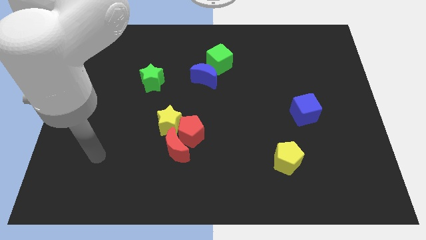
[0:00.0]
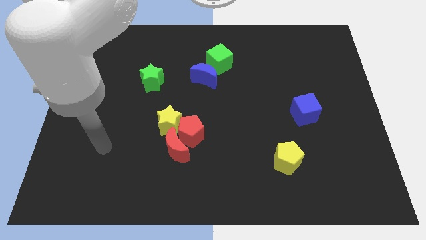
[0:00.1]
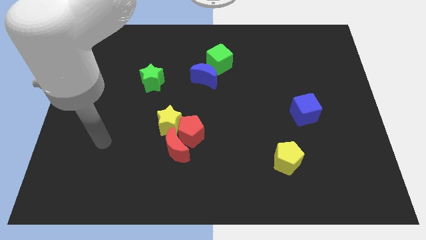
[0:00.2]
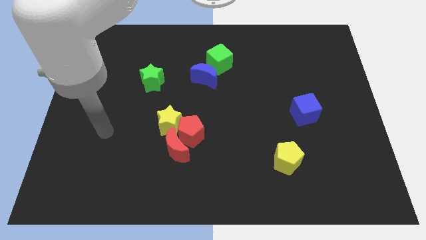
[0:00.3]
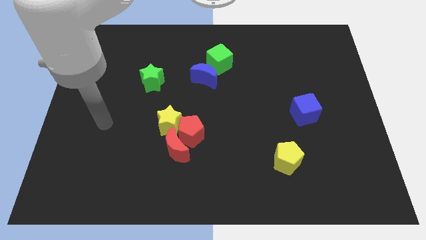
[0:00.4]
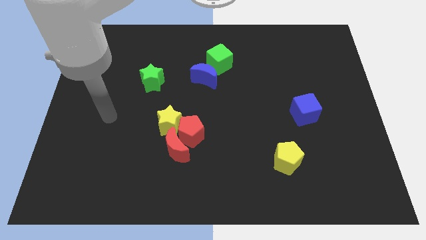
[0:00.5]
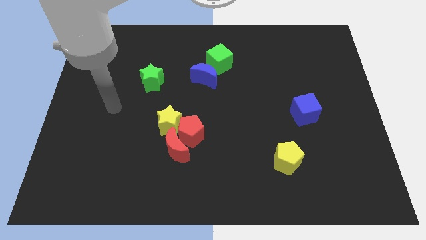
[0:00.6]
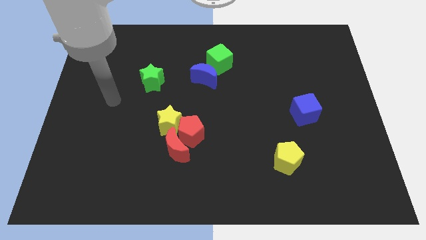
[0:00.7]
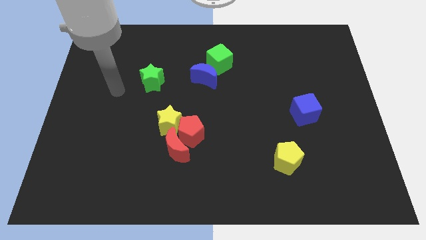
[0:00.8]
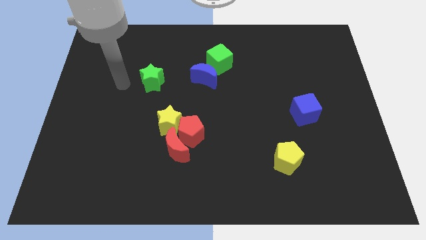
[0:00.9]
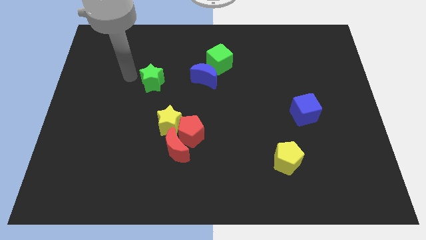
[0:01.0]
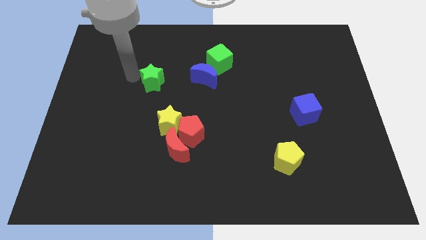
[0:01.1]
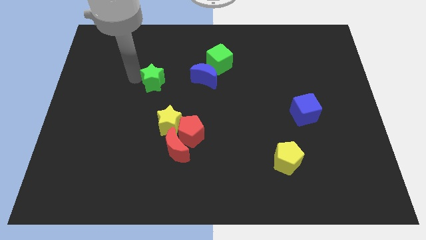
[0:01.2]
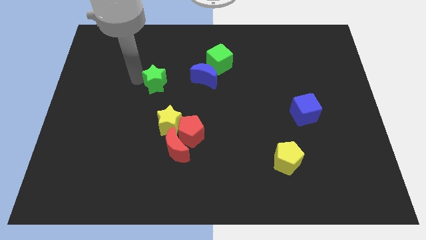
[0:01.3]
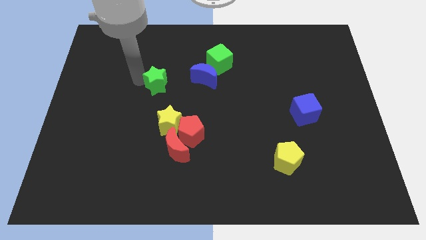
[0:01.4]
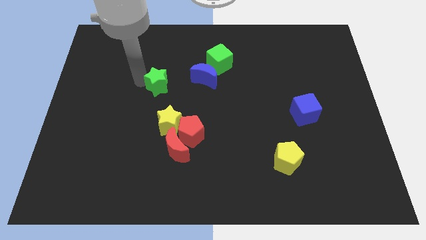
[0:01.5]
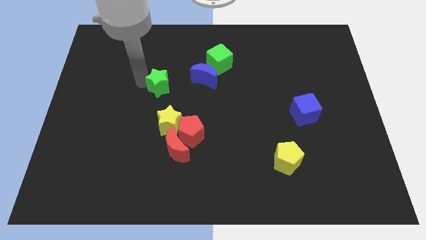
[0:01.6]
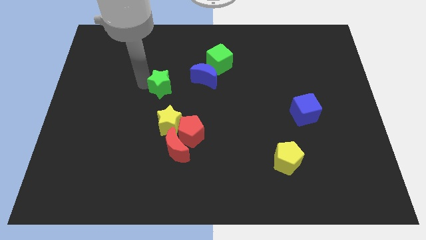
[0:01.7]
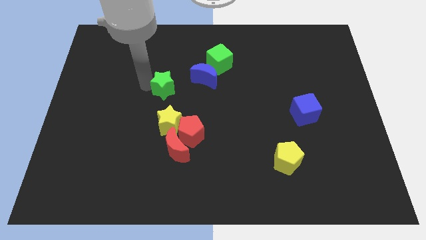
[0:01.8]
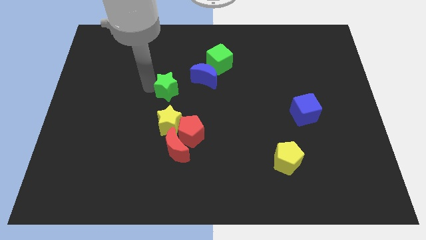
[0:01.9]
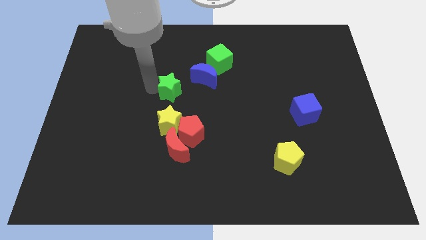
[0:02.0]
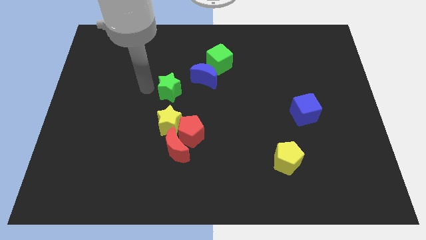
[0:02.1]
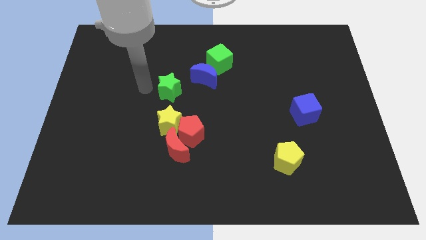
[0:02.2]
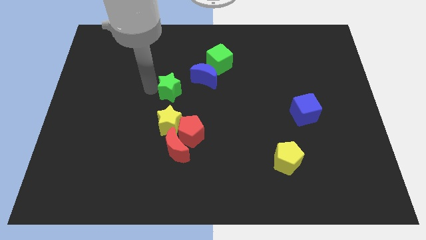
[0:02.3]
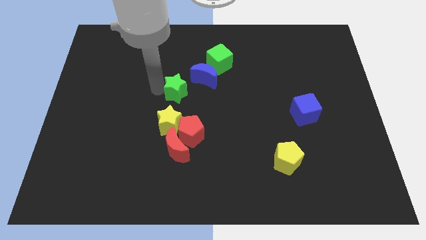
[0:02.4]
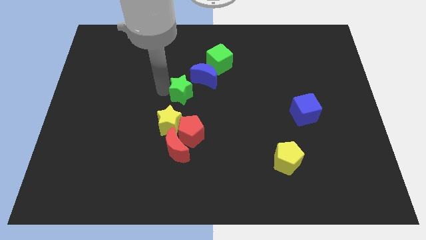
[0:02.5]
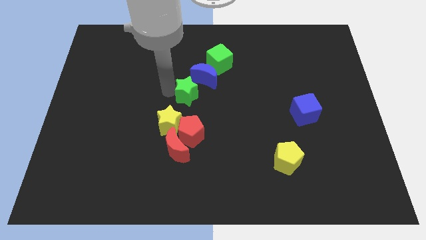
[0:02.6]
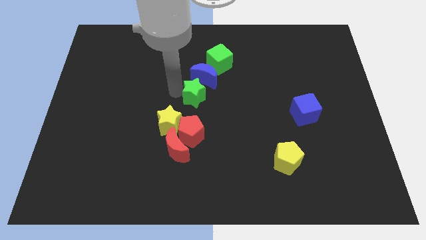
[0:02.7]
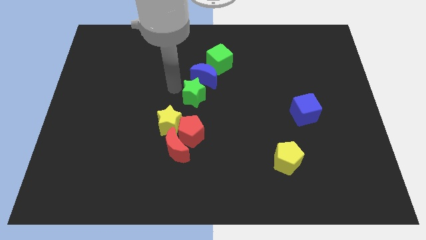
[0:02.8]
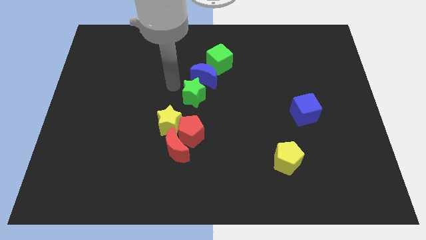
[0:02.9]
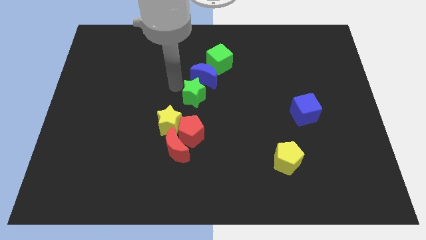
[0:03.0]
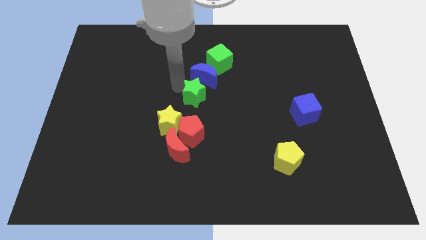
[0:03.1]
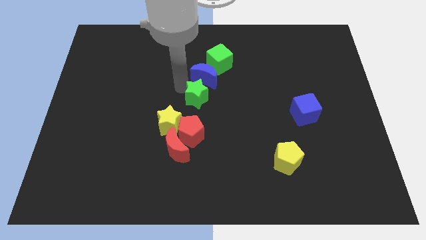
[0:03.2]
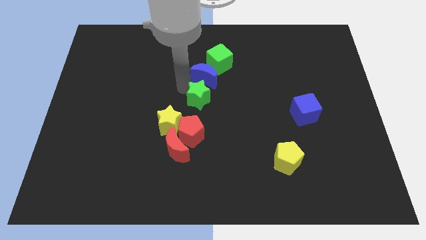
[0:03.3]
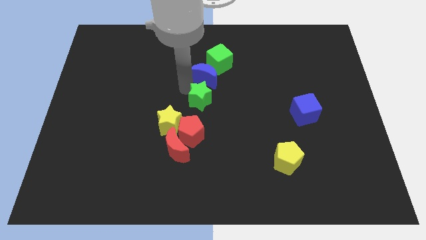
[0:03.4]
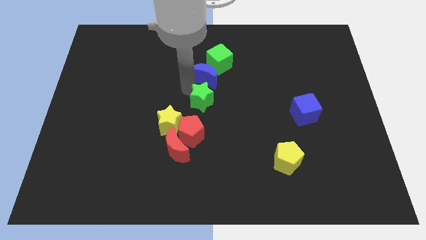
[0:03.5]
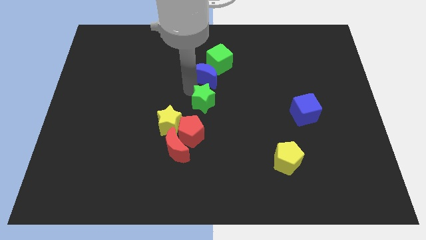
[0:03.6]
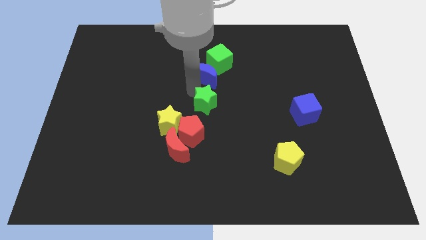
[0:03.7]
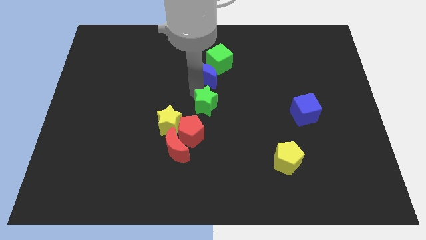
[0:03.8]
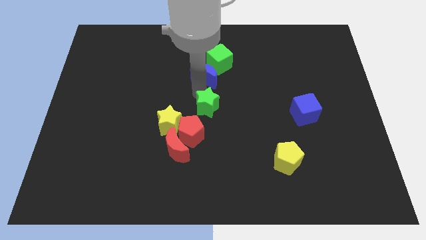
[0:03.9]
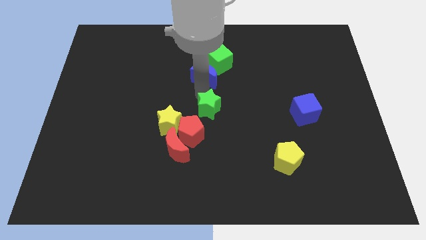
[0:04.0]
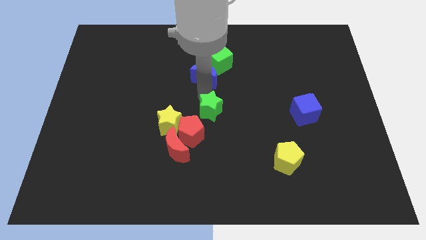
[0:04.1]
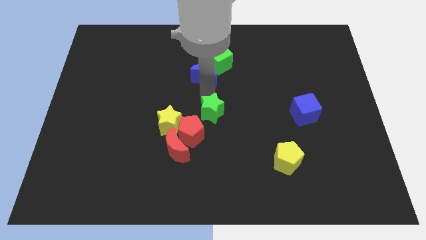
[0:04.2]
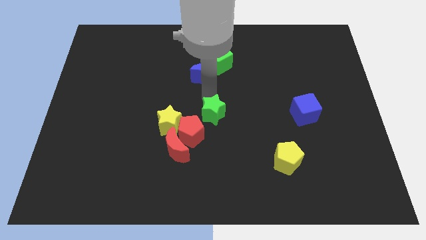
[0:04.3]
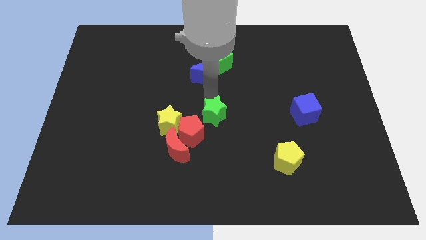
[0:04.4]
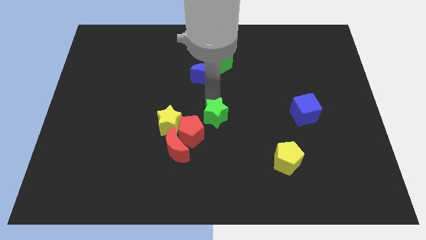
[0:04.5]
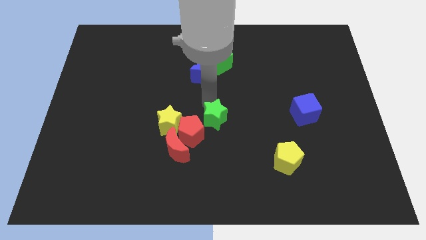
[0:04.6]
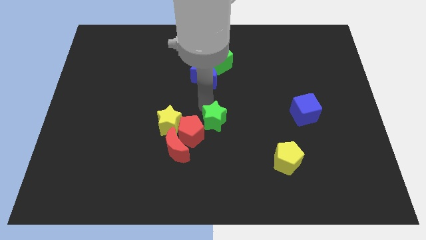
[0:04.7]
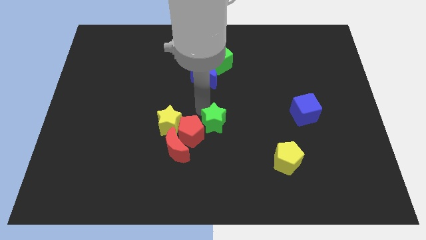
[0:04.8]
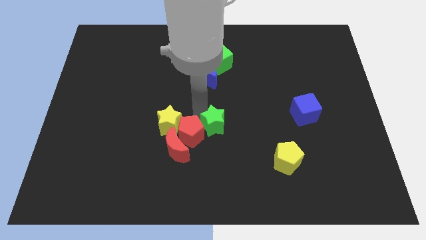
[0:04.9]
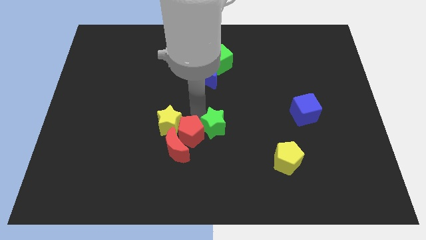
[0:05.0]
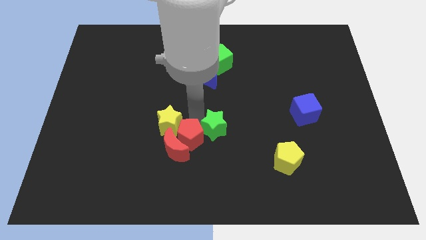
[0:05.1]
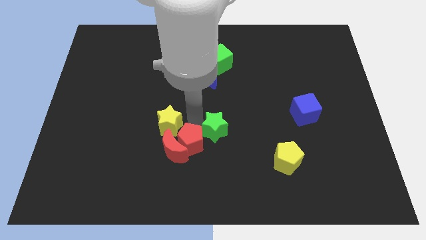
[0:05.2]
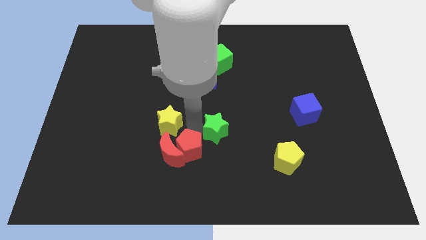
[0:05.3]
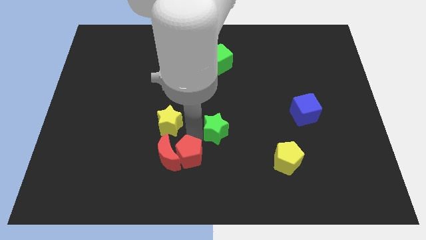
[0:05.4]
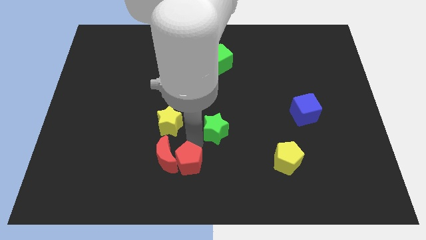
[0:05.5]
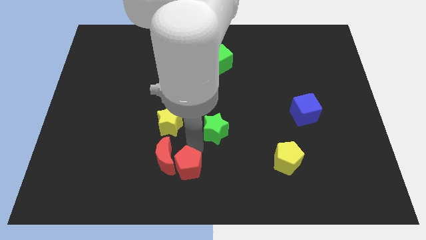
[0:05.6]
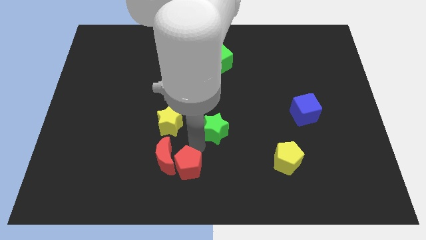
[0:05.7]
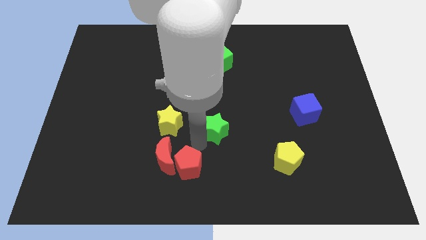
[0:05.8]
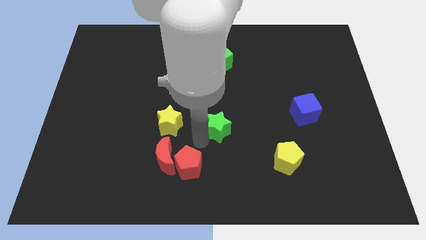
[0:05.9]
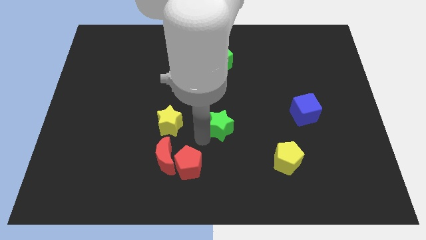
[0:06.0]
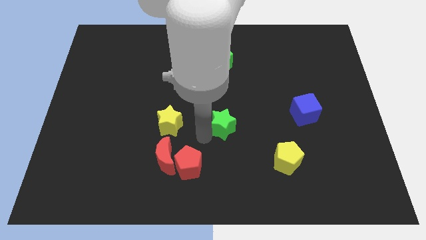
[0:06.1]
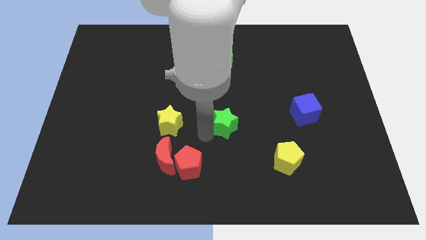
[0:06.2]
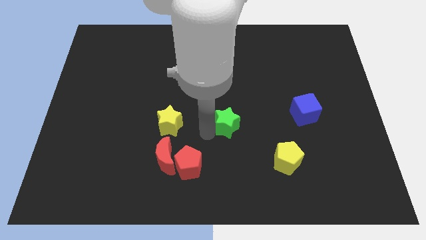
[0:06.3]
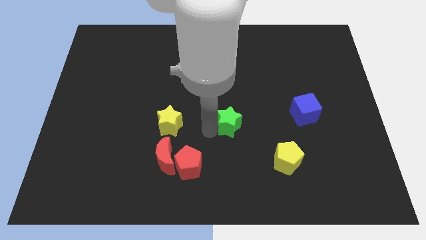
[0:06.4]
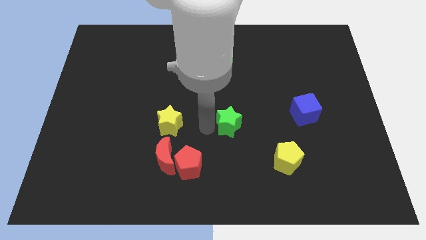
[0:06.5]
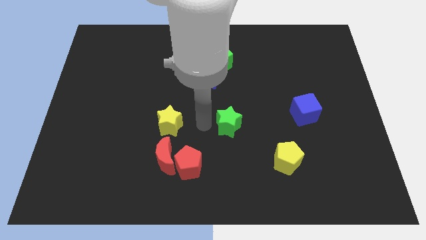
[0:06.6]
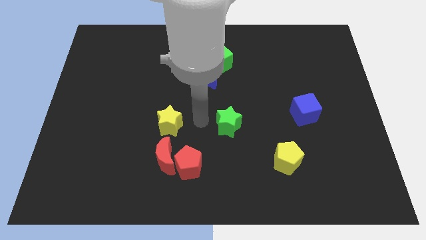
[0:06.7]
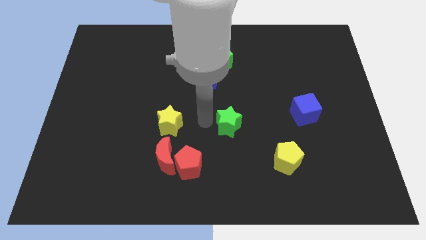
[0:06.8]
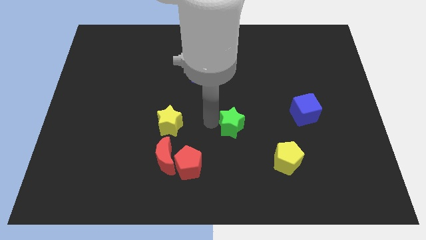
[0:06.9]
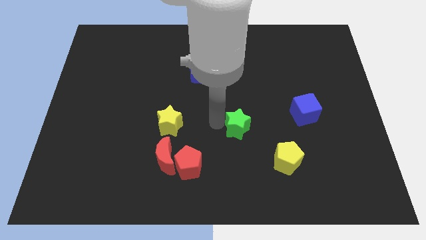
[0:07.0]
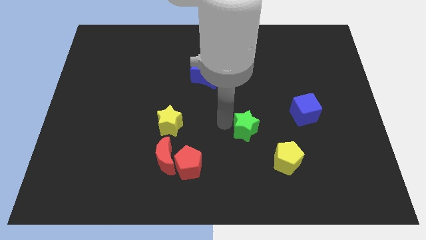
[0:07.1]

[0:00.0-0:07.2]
slide the green star to the top left of the yellow pentagon
